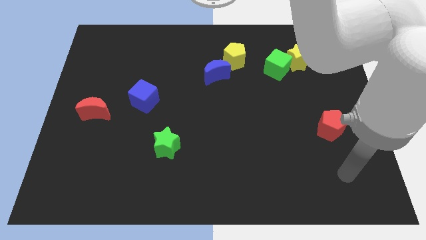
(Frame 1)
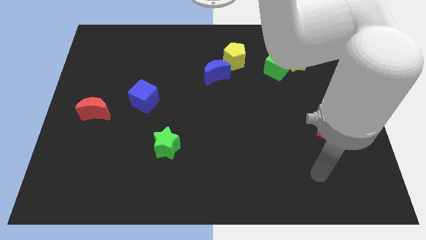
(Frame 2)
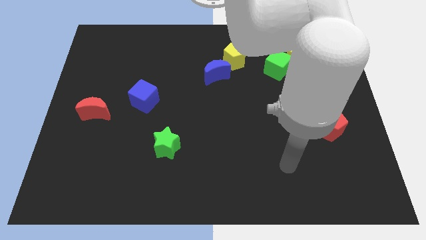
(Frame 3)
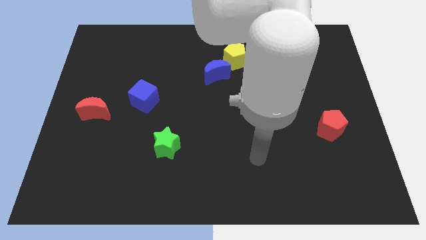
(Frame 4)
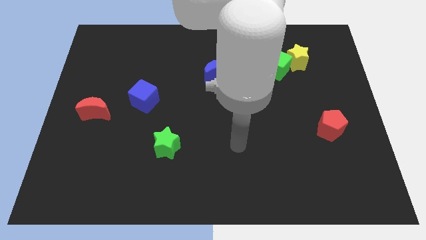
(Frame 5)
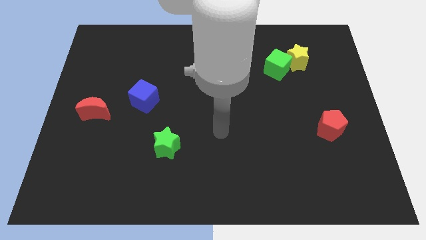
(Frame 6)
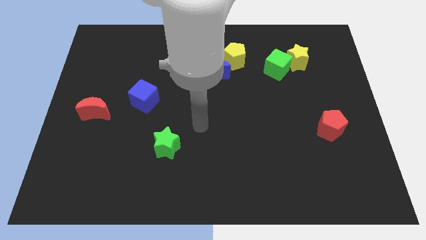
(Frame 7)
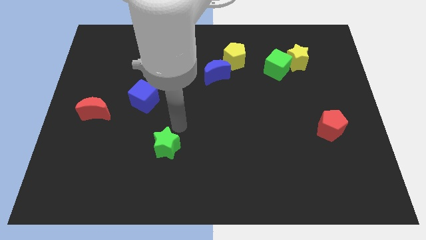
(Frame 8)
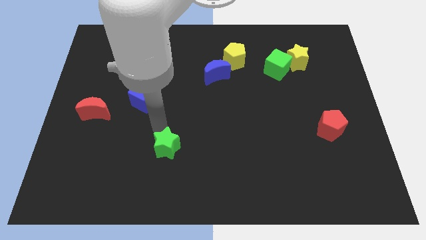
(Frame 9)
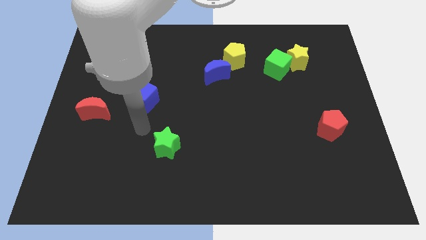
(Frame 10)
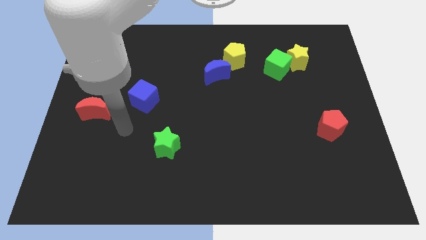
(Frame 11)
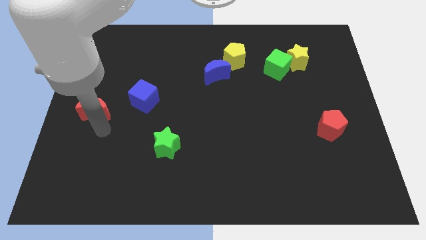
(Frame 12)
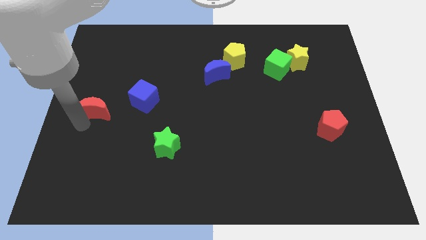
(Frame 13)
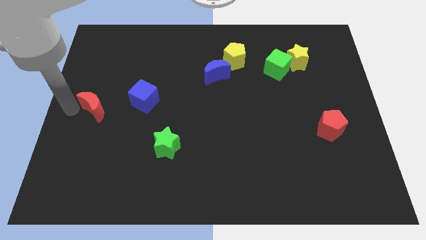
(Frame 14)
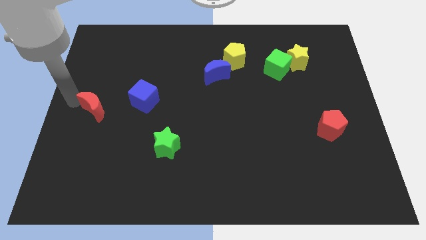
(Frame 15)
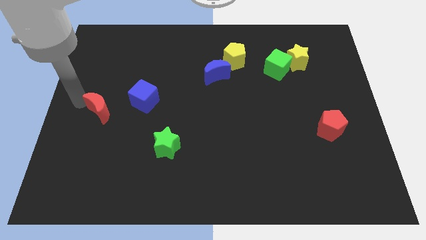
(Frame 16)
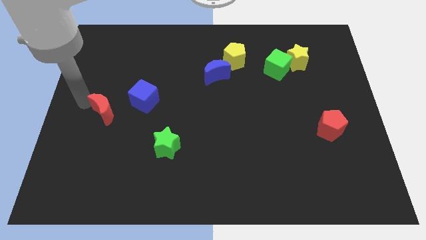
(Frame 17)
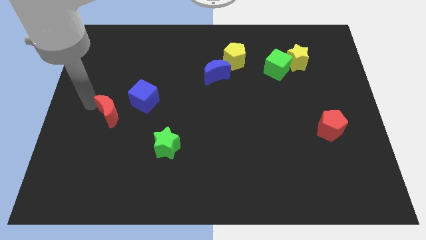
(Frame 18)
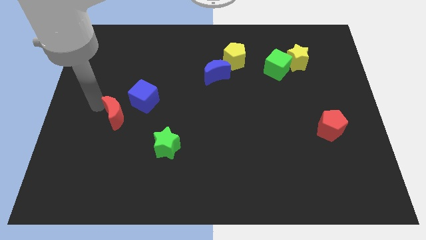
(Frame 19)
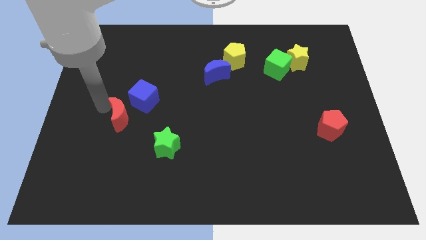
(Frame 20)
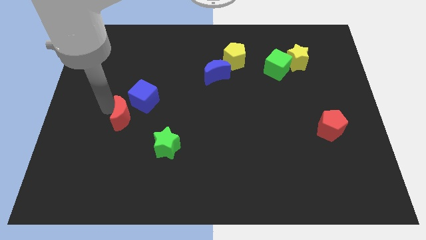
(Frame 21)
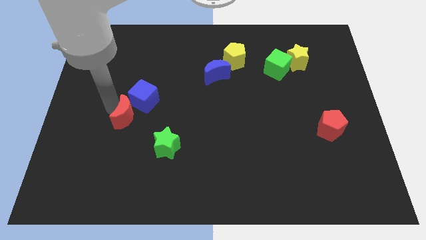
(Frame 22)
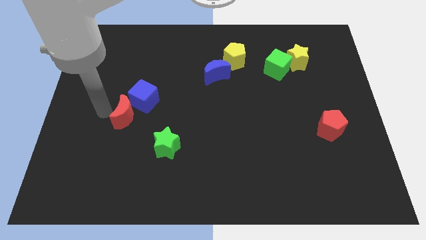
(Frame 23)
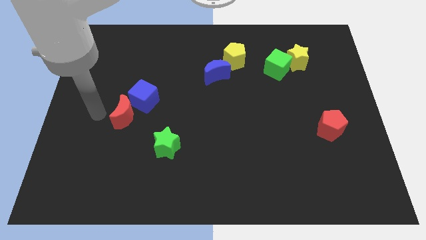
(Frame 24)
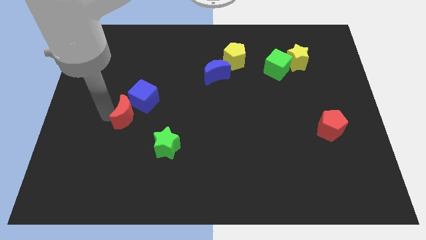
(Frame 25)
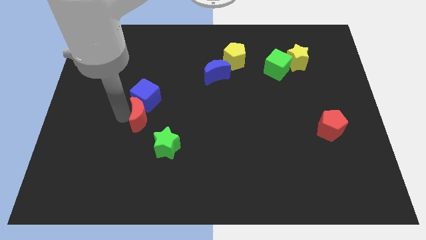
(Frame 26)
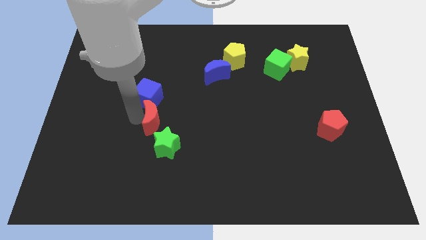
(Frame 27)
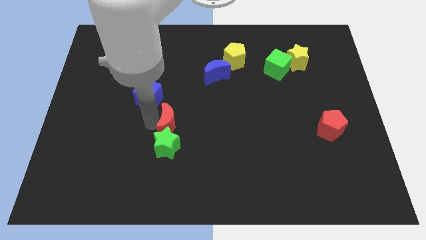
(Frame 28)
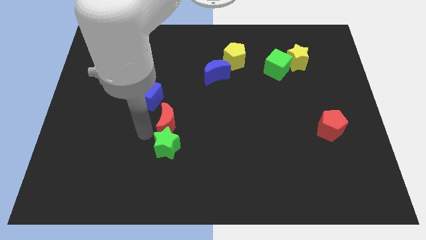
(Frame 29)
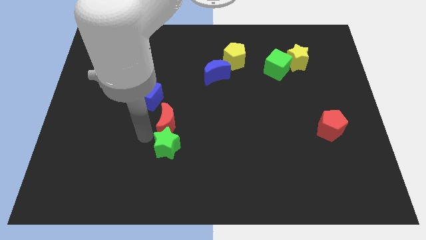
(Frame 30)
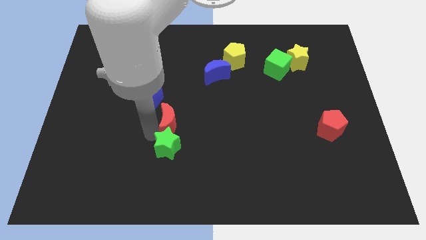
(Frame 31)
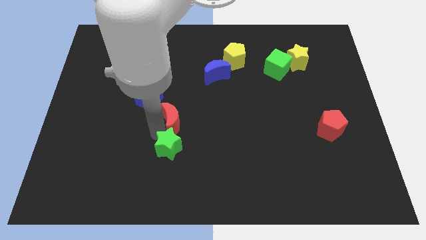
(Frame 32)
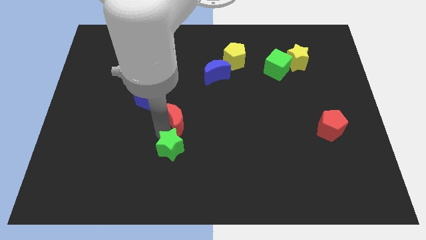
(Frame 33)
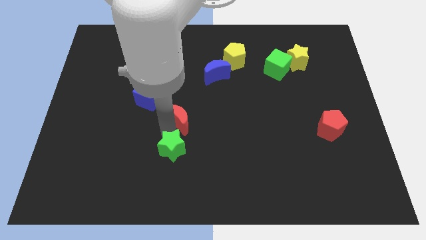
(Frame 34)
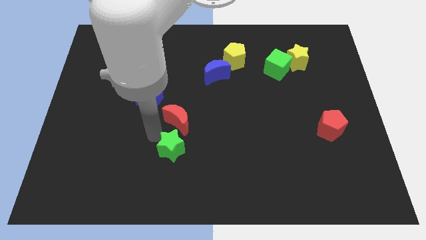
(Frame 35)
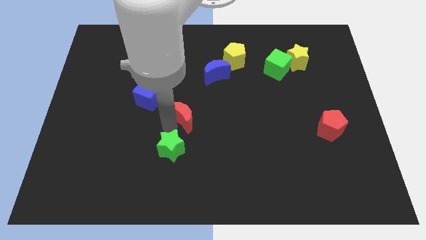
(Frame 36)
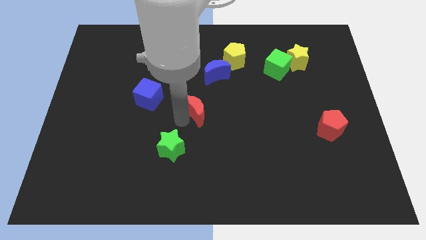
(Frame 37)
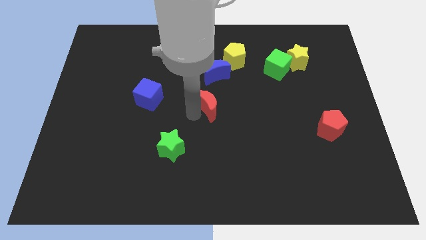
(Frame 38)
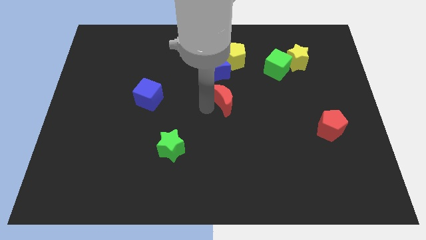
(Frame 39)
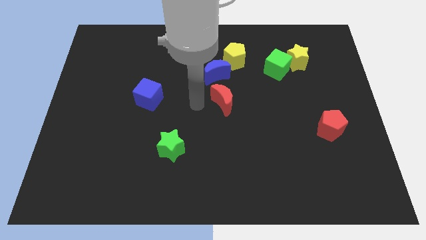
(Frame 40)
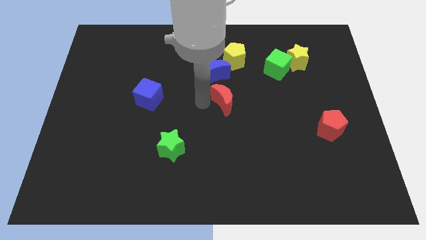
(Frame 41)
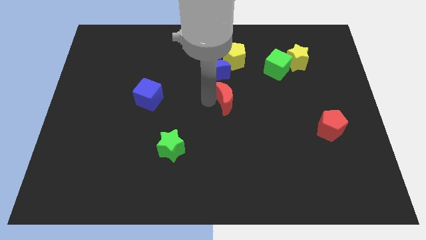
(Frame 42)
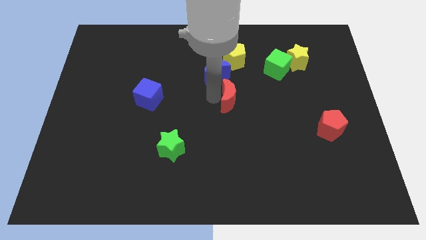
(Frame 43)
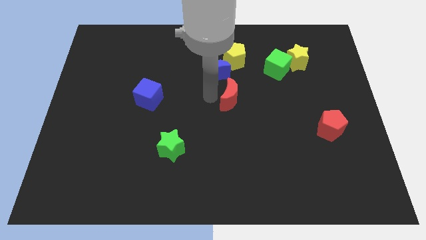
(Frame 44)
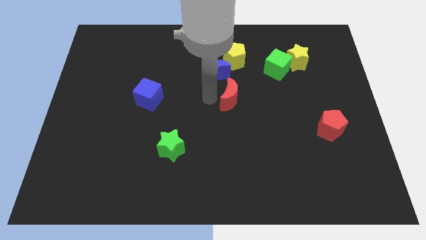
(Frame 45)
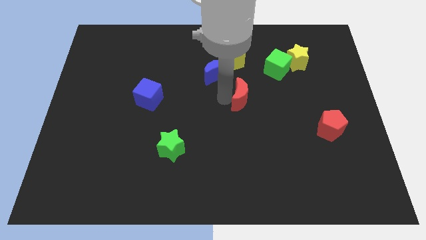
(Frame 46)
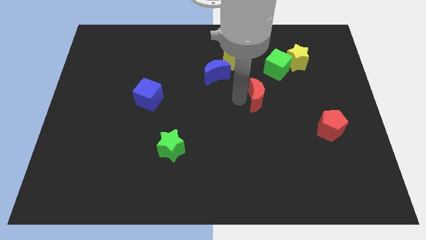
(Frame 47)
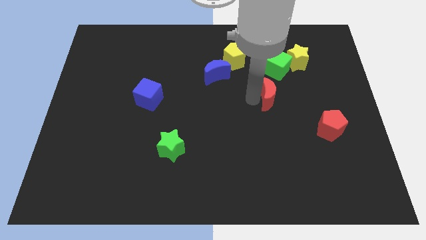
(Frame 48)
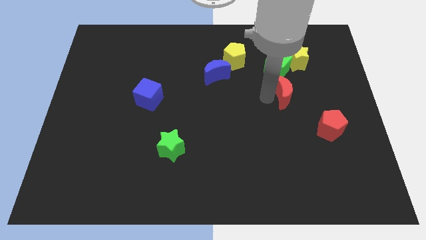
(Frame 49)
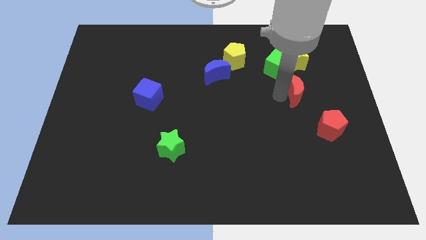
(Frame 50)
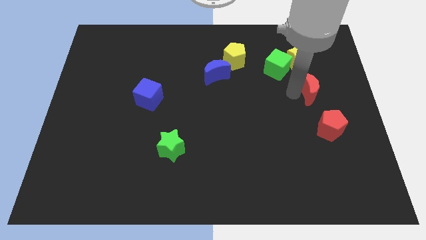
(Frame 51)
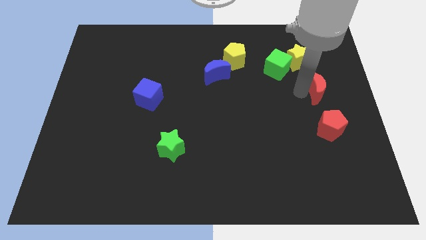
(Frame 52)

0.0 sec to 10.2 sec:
push the red moon to the center right
